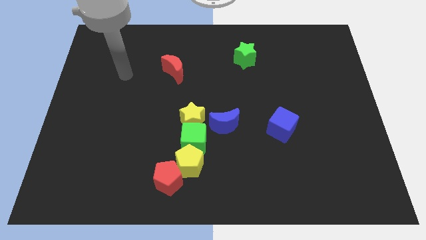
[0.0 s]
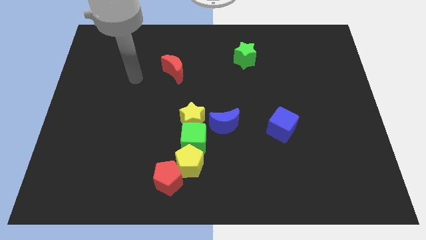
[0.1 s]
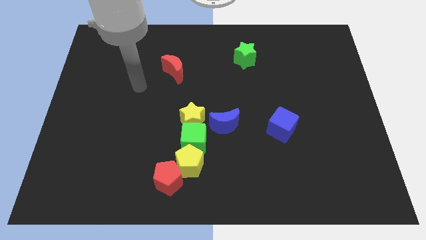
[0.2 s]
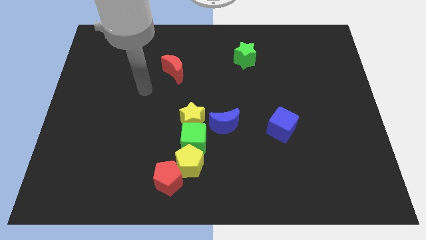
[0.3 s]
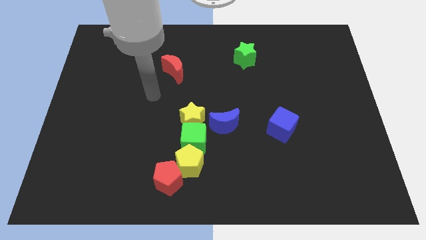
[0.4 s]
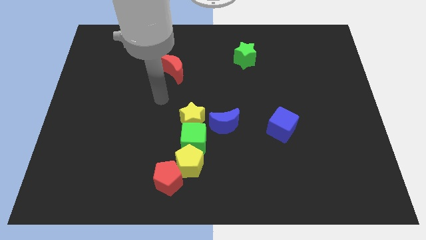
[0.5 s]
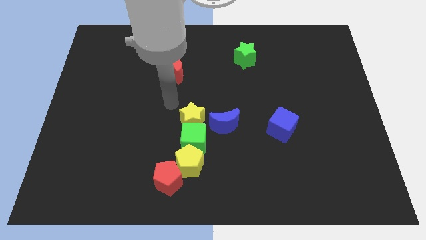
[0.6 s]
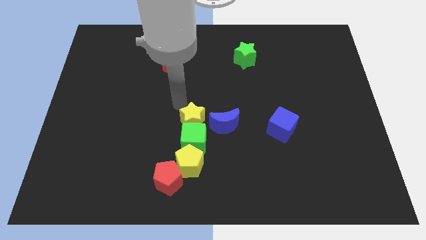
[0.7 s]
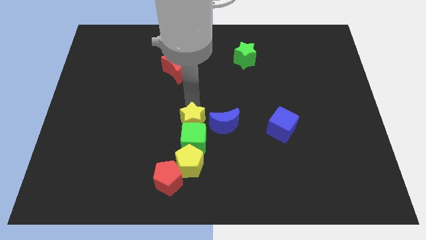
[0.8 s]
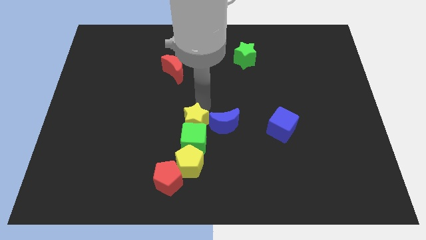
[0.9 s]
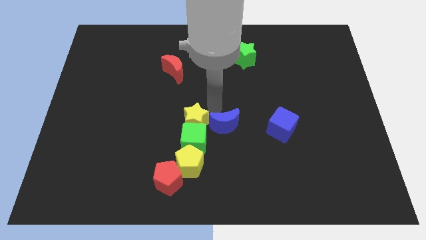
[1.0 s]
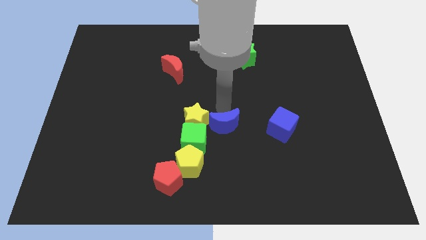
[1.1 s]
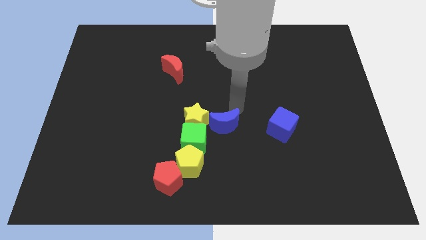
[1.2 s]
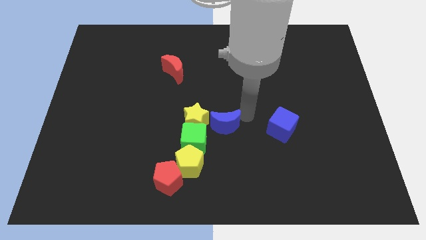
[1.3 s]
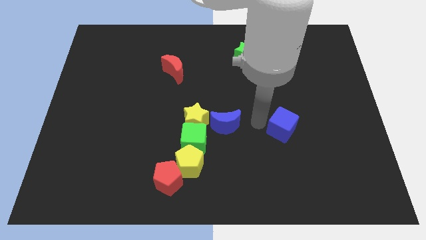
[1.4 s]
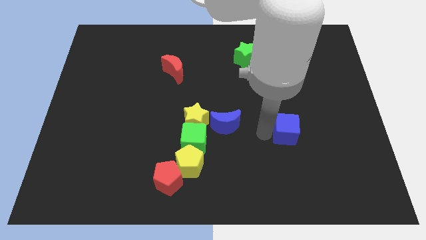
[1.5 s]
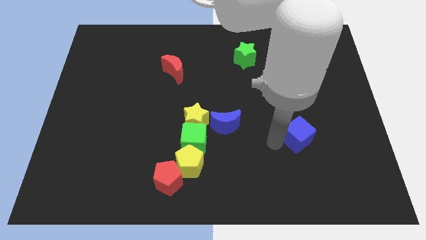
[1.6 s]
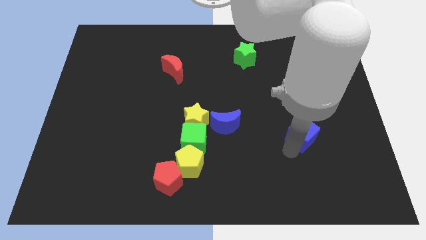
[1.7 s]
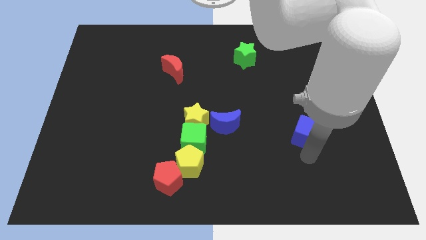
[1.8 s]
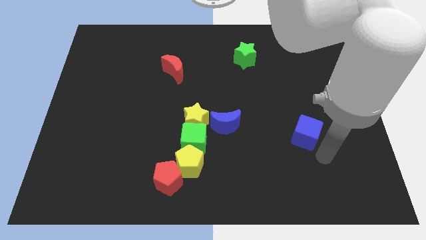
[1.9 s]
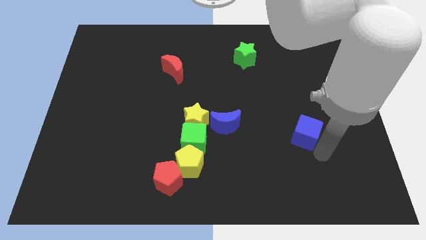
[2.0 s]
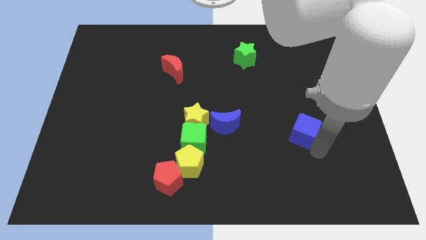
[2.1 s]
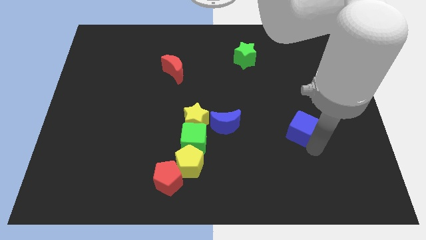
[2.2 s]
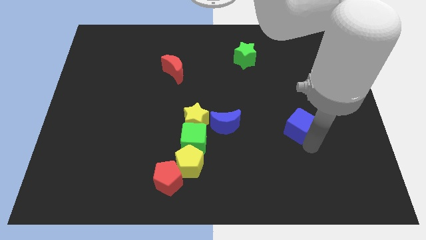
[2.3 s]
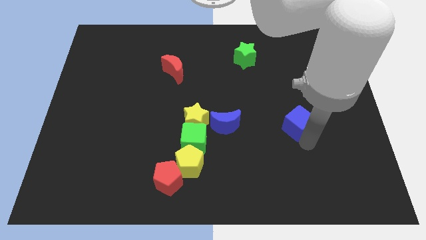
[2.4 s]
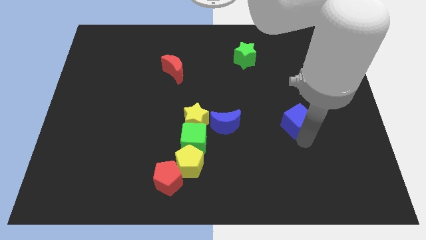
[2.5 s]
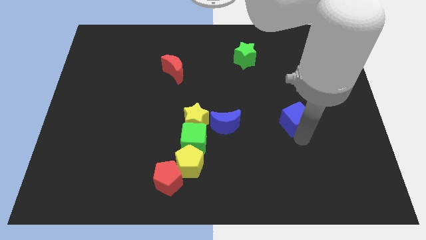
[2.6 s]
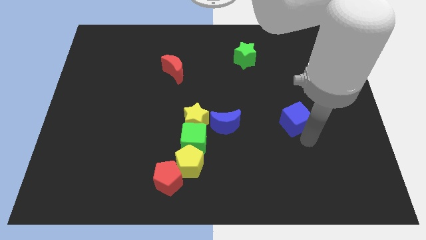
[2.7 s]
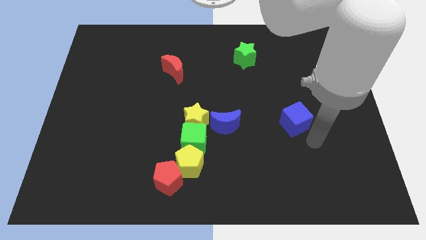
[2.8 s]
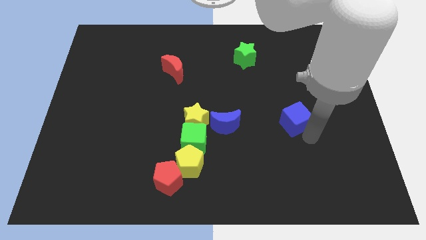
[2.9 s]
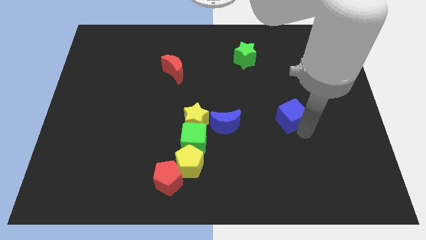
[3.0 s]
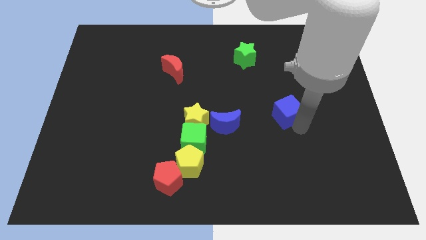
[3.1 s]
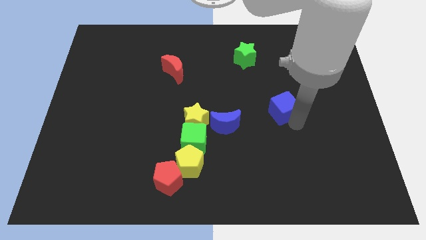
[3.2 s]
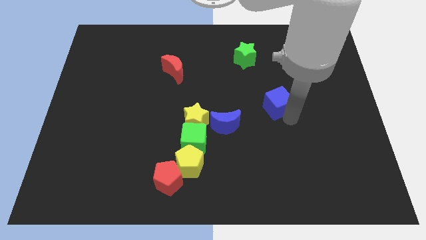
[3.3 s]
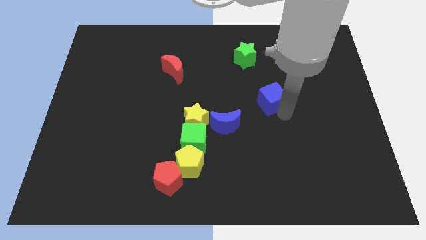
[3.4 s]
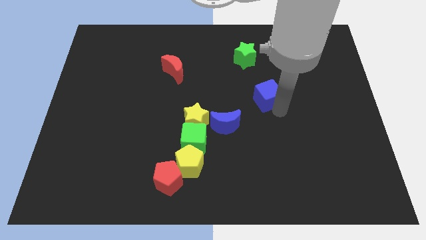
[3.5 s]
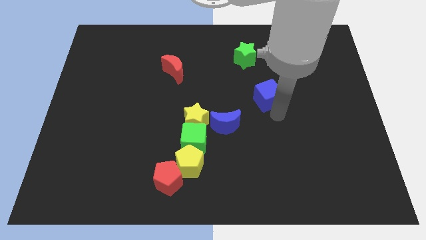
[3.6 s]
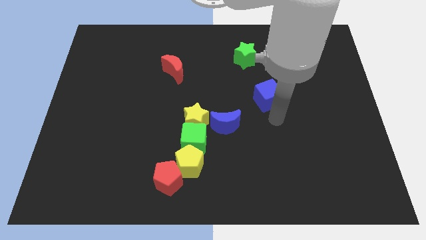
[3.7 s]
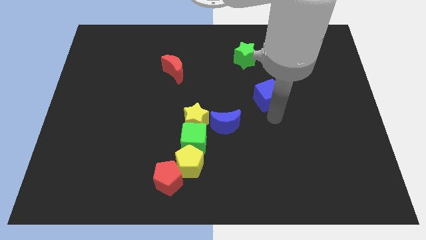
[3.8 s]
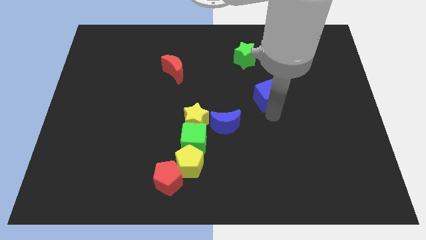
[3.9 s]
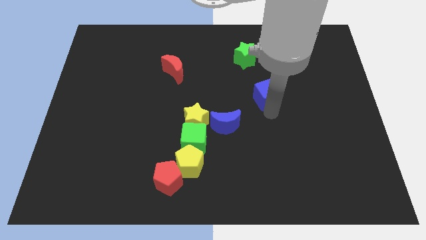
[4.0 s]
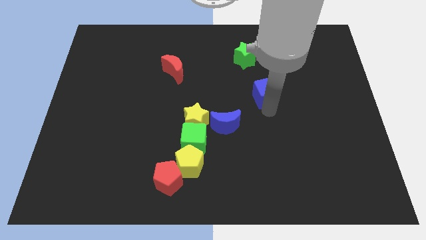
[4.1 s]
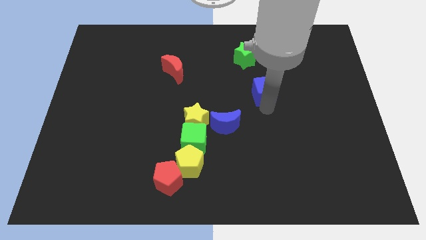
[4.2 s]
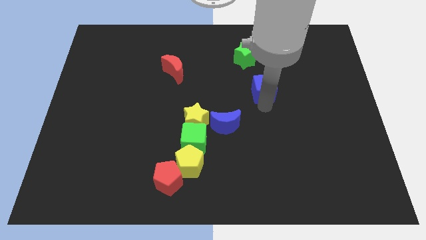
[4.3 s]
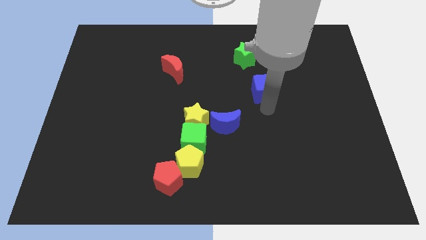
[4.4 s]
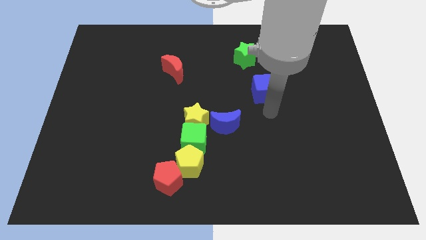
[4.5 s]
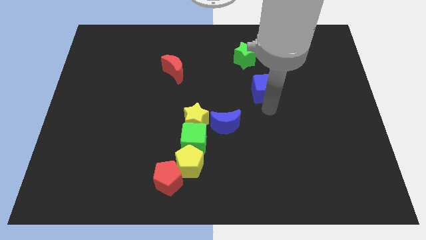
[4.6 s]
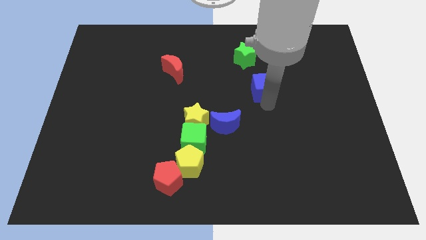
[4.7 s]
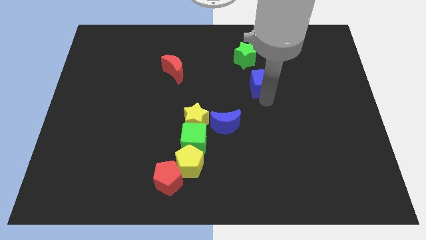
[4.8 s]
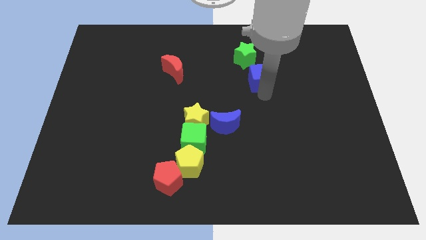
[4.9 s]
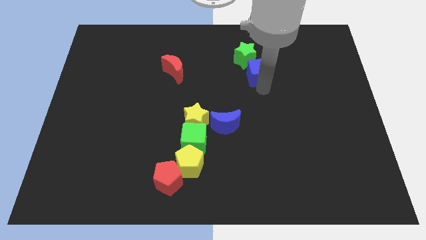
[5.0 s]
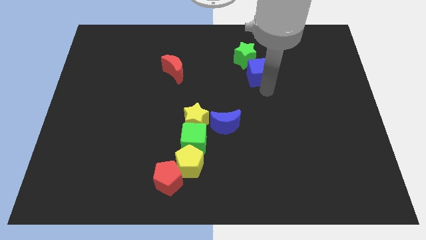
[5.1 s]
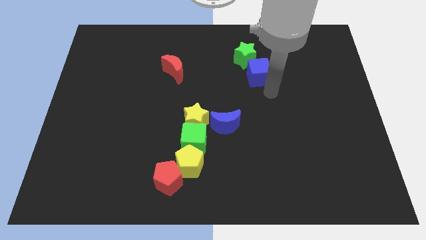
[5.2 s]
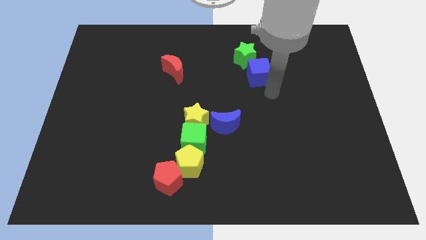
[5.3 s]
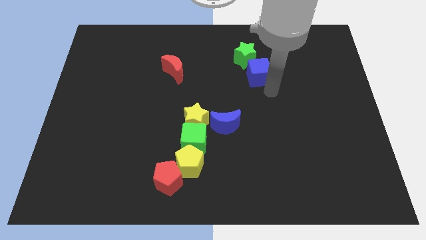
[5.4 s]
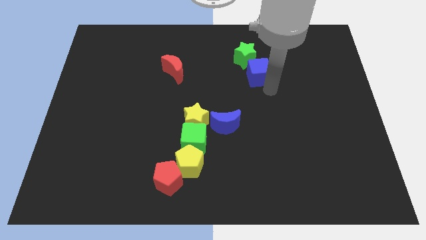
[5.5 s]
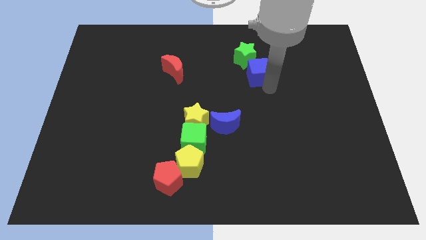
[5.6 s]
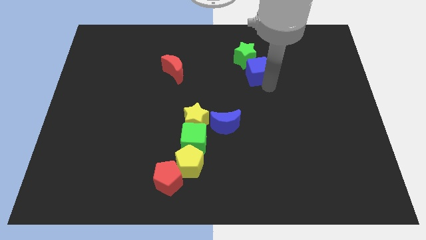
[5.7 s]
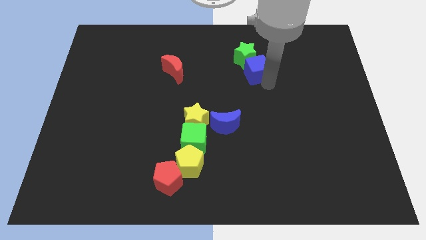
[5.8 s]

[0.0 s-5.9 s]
put the blue cube next to the green star

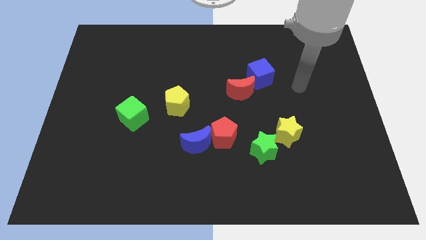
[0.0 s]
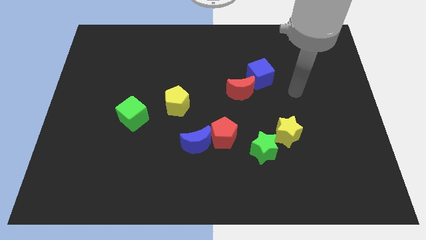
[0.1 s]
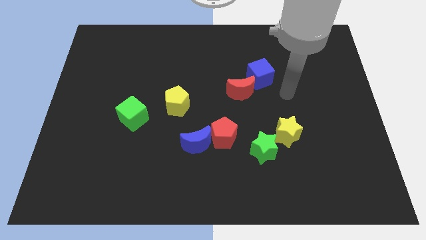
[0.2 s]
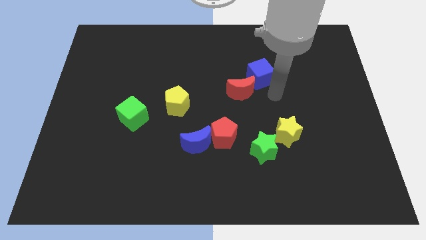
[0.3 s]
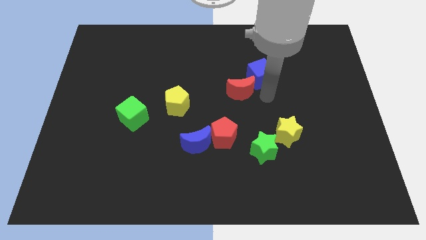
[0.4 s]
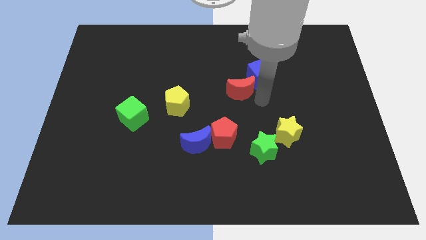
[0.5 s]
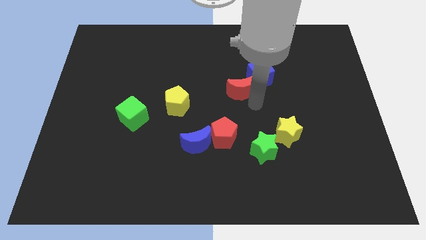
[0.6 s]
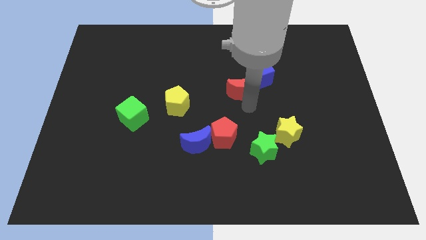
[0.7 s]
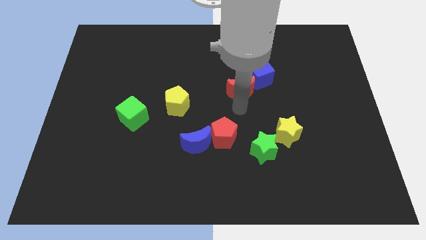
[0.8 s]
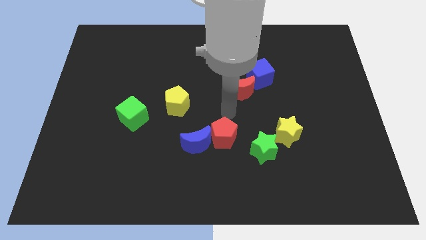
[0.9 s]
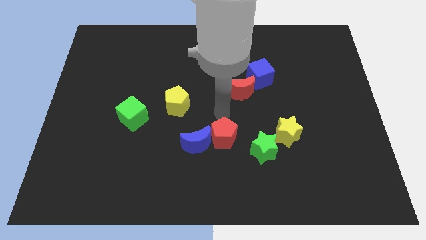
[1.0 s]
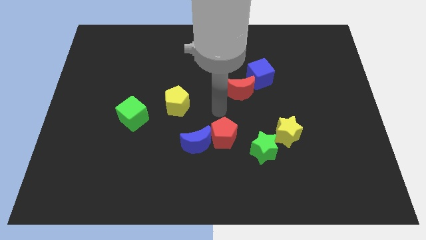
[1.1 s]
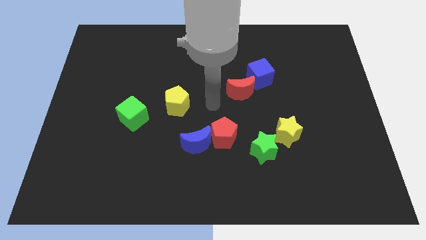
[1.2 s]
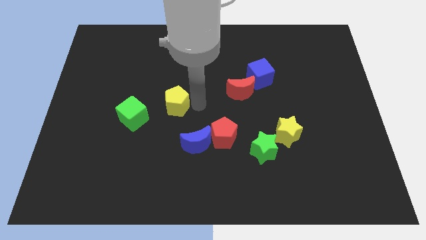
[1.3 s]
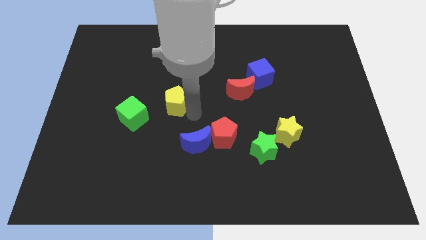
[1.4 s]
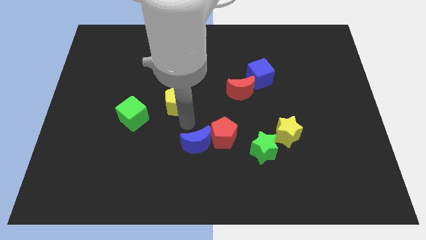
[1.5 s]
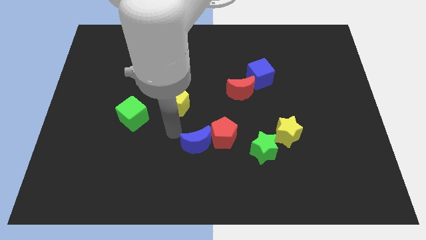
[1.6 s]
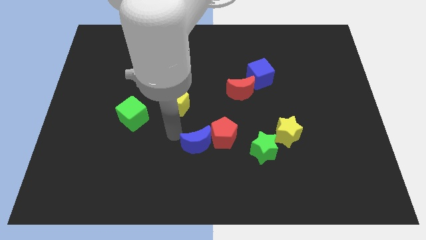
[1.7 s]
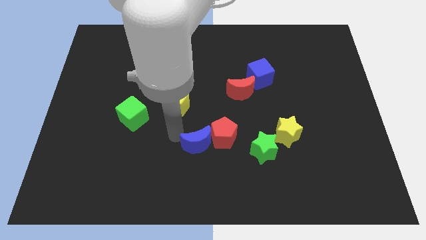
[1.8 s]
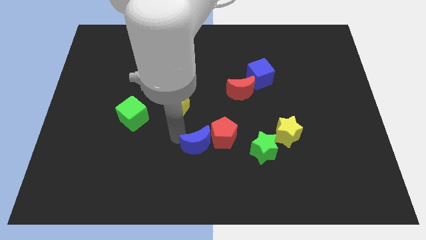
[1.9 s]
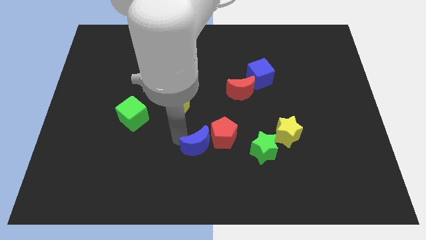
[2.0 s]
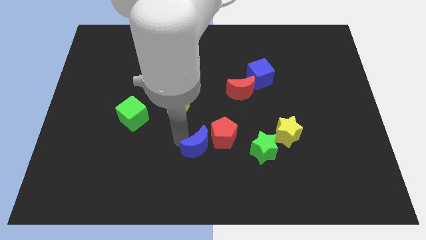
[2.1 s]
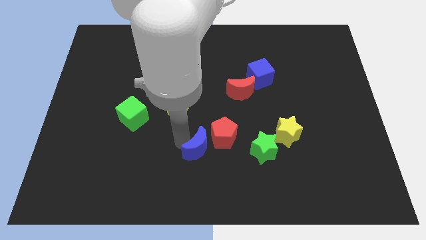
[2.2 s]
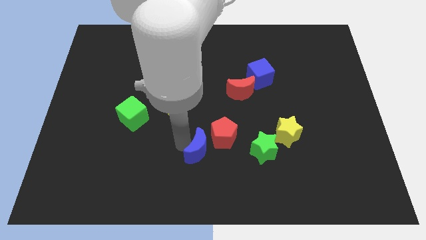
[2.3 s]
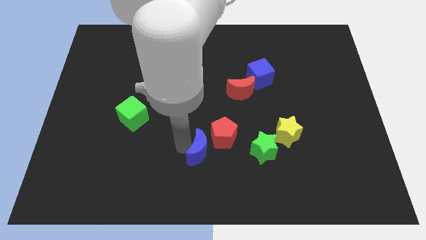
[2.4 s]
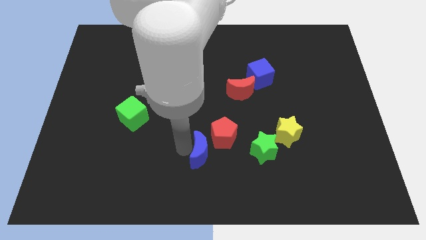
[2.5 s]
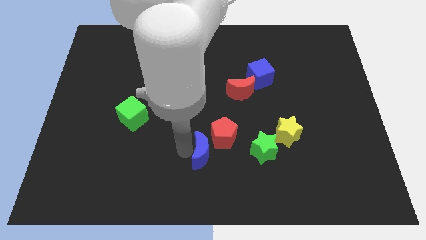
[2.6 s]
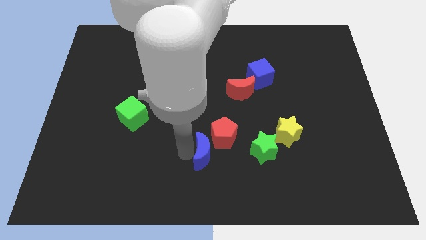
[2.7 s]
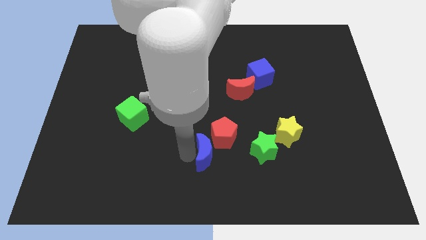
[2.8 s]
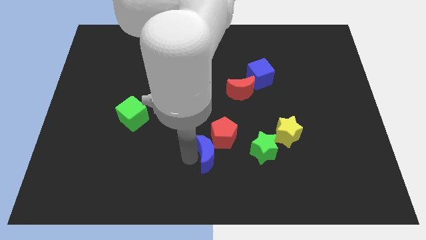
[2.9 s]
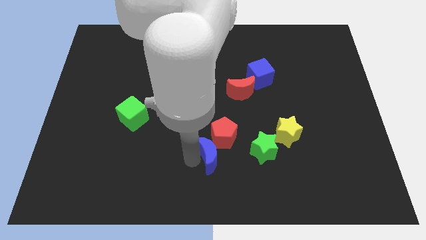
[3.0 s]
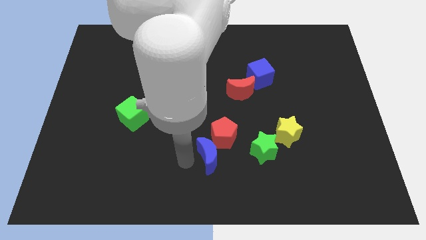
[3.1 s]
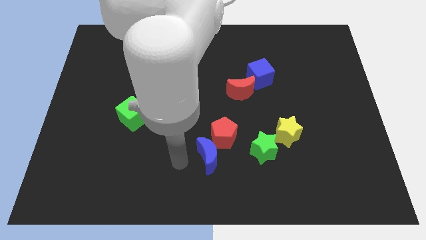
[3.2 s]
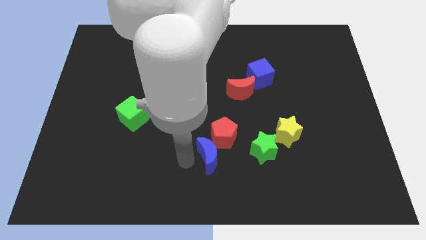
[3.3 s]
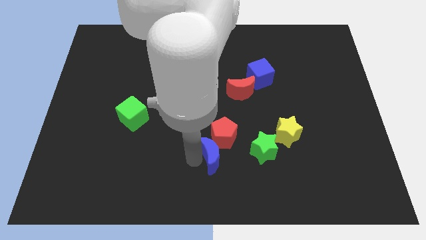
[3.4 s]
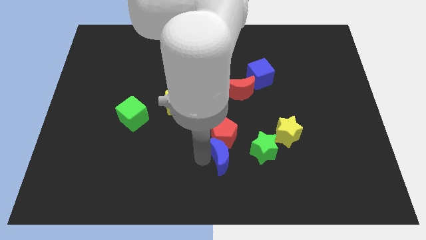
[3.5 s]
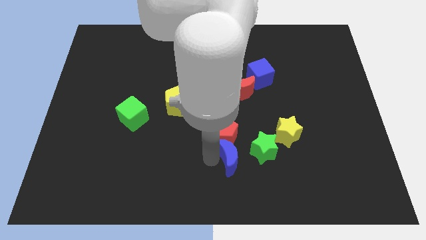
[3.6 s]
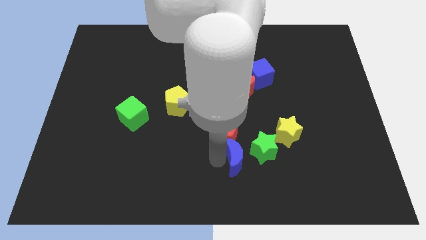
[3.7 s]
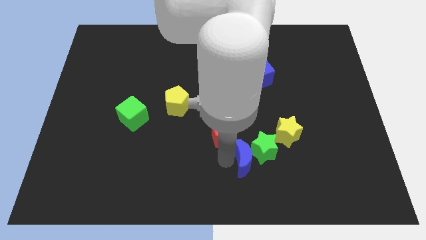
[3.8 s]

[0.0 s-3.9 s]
move the blue moon next to the green star
